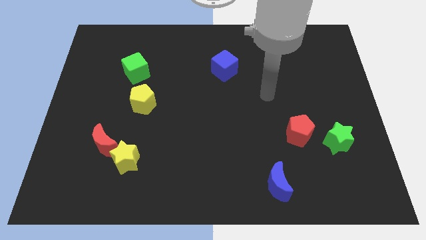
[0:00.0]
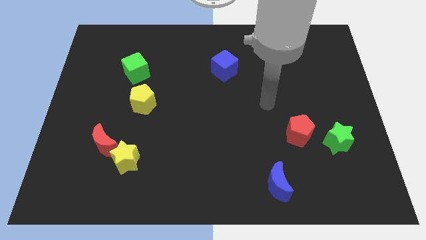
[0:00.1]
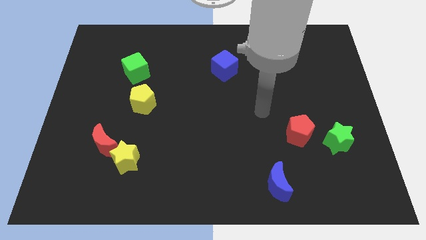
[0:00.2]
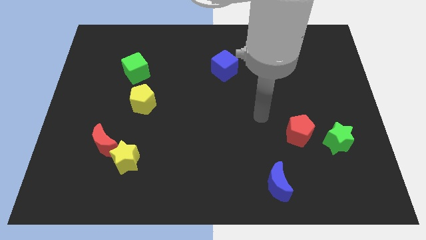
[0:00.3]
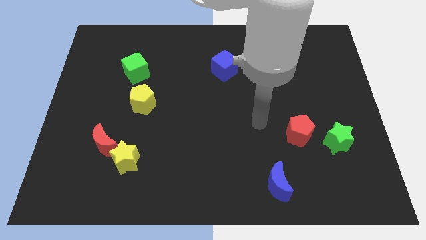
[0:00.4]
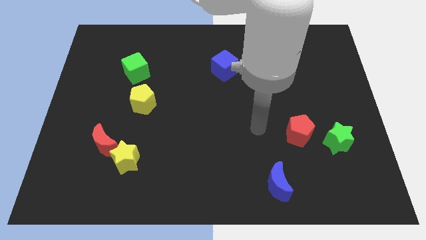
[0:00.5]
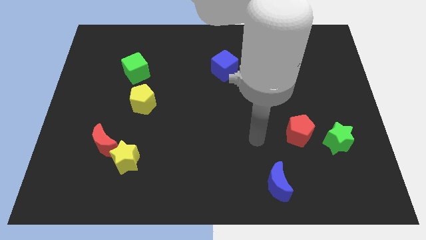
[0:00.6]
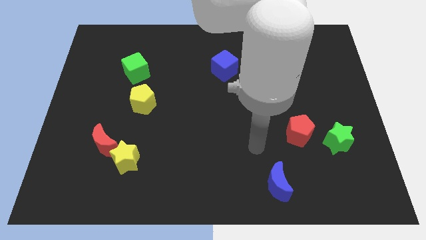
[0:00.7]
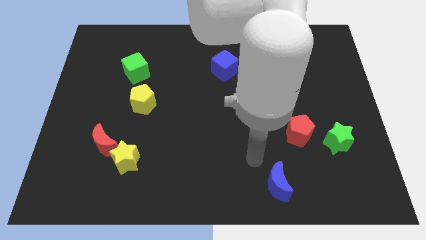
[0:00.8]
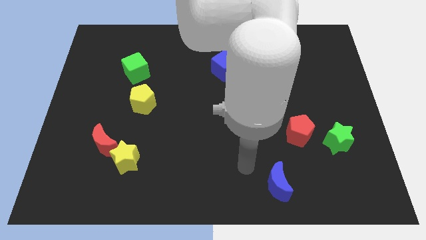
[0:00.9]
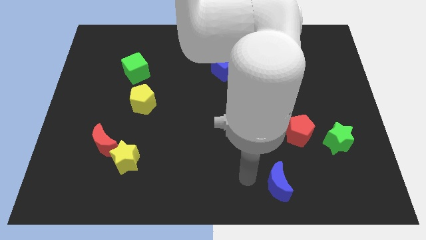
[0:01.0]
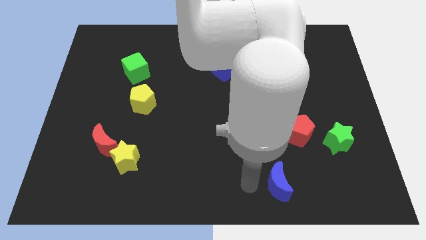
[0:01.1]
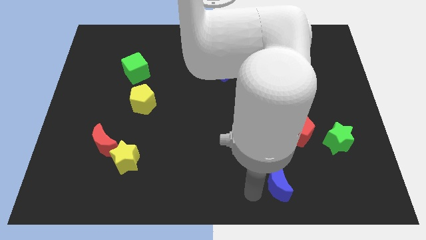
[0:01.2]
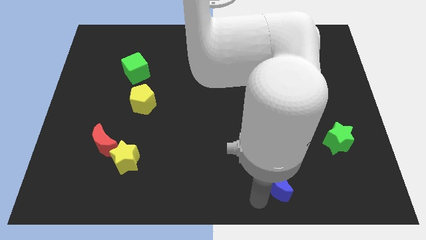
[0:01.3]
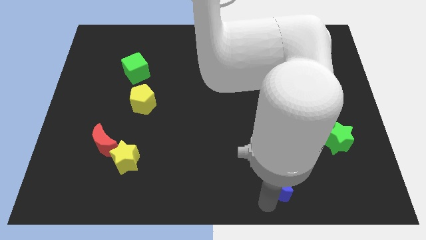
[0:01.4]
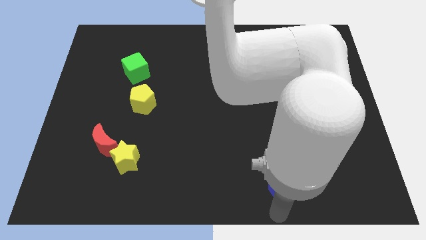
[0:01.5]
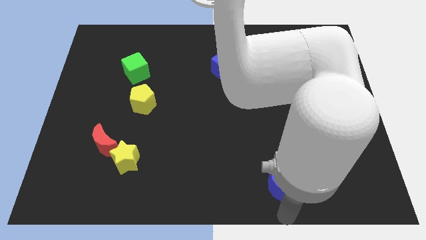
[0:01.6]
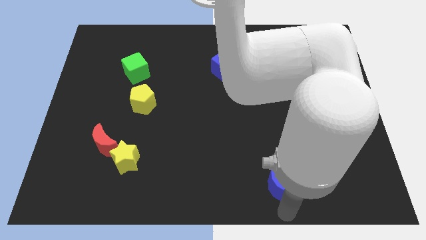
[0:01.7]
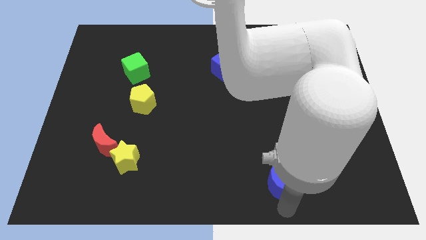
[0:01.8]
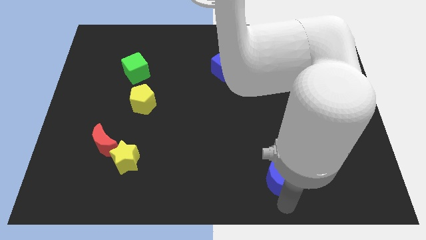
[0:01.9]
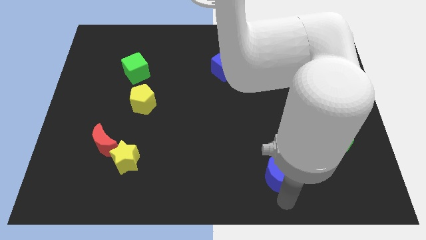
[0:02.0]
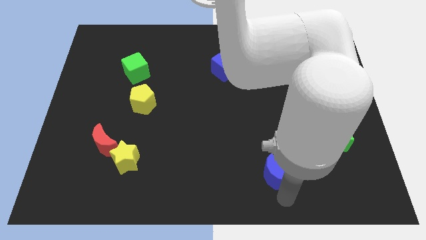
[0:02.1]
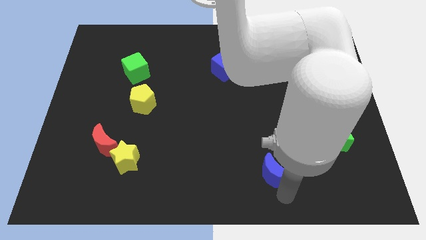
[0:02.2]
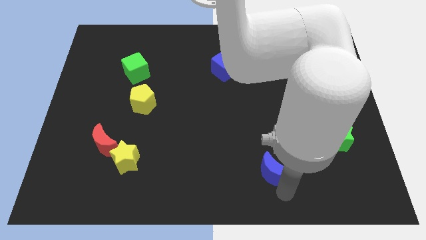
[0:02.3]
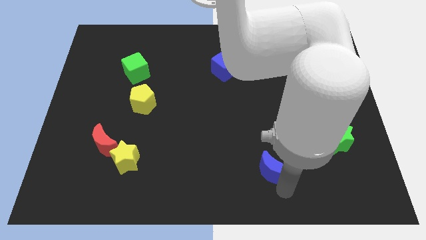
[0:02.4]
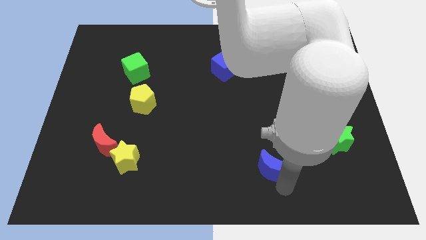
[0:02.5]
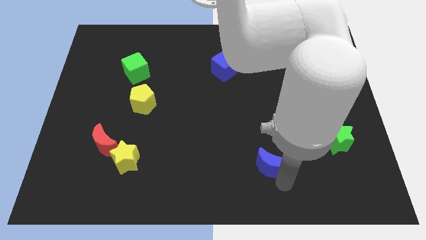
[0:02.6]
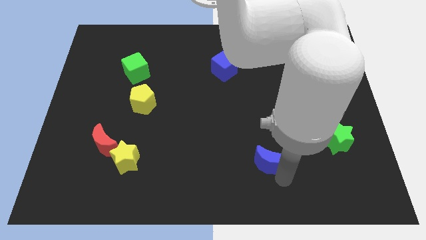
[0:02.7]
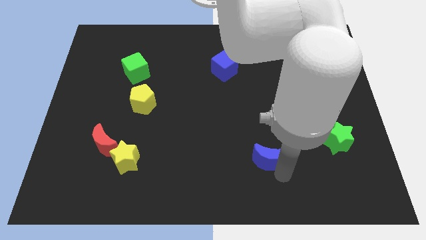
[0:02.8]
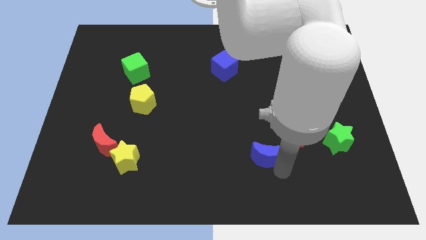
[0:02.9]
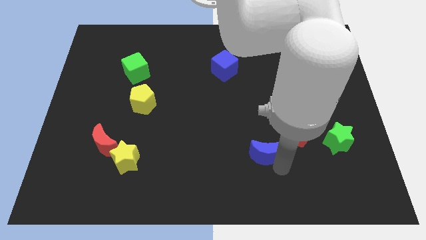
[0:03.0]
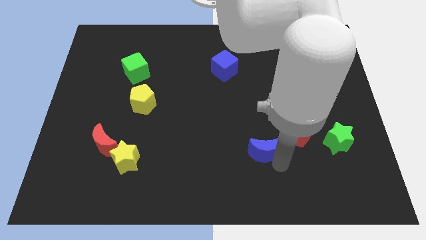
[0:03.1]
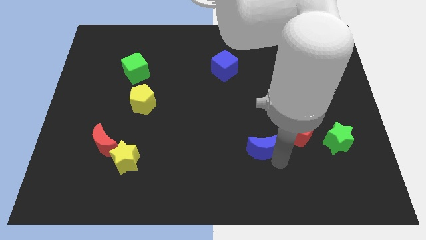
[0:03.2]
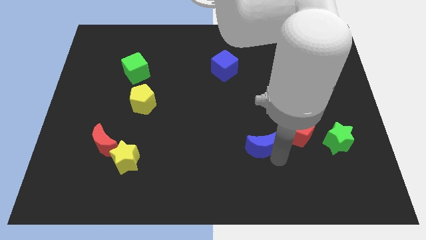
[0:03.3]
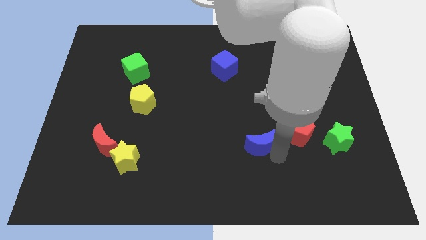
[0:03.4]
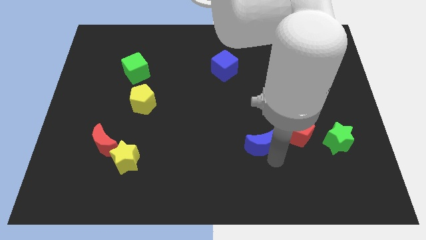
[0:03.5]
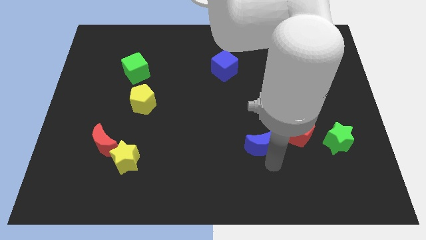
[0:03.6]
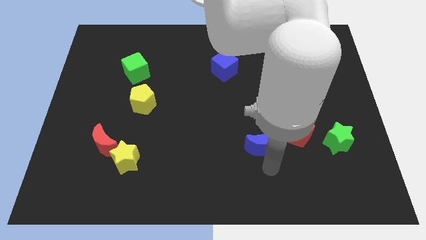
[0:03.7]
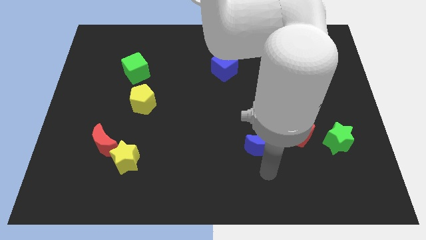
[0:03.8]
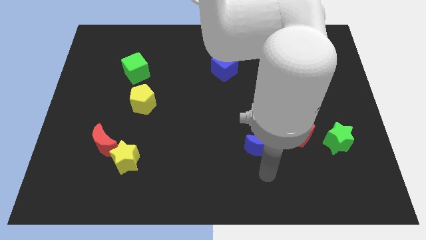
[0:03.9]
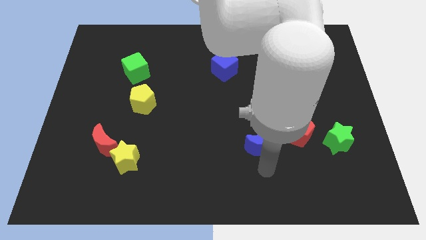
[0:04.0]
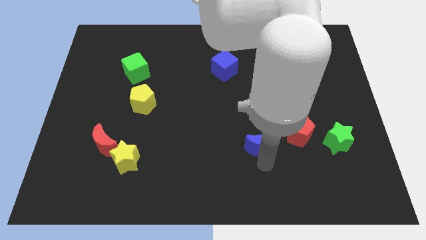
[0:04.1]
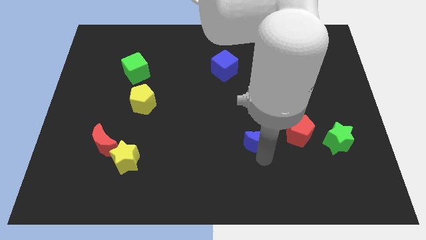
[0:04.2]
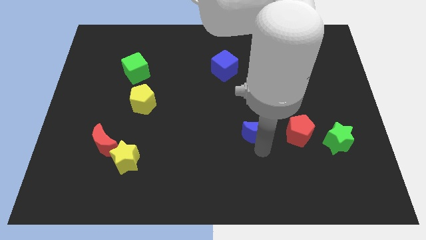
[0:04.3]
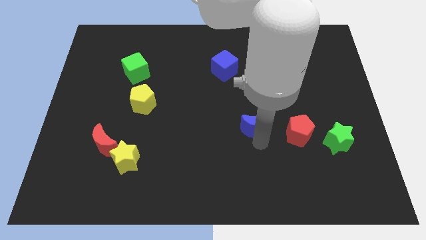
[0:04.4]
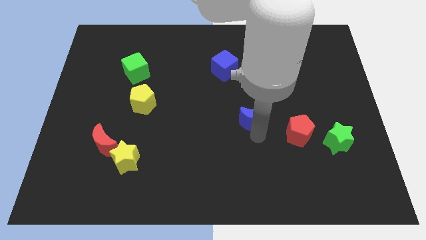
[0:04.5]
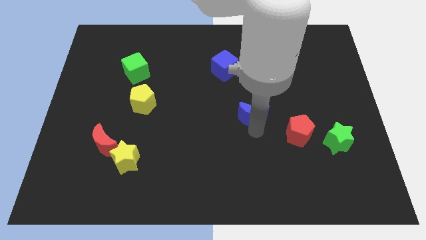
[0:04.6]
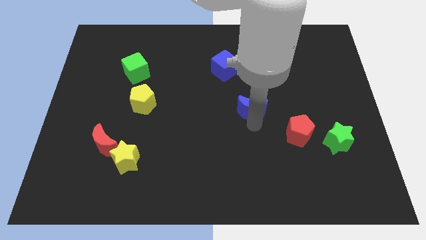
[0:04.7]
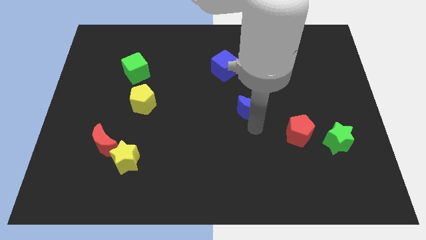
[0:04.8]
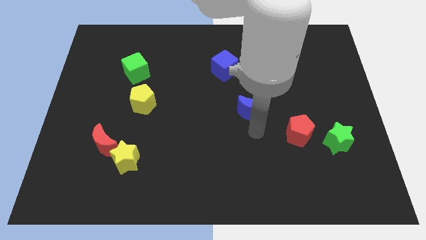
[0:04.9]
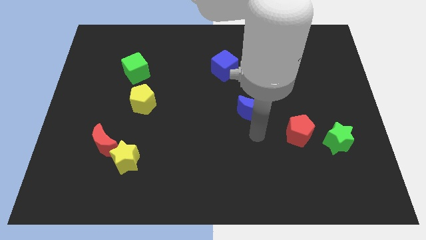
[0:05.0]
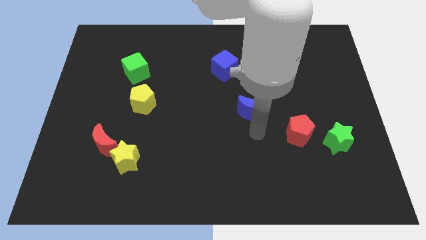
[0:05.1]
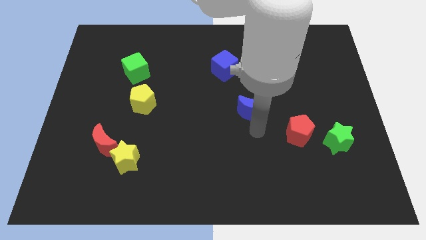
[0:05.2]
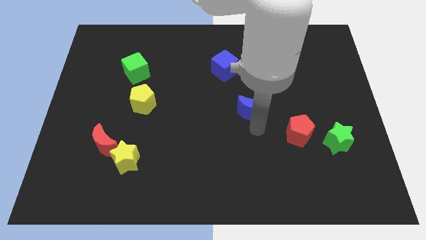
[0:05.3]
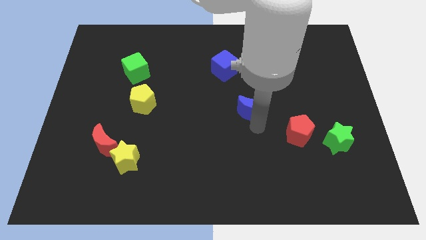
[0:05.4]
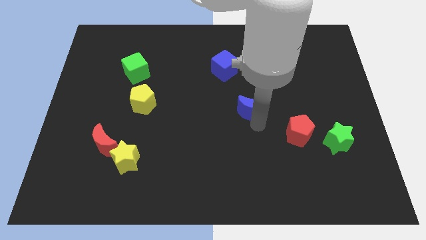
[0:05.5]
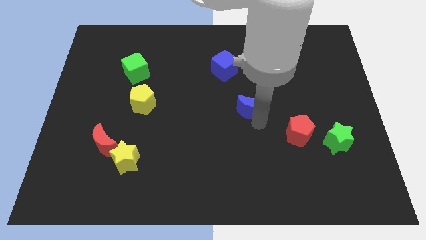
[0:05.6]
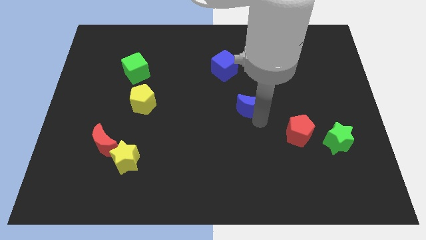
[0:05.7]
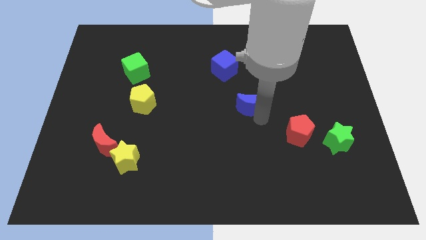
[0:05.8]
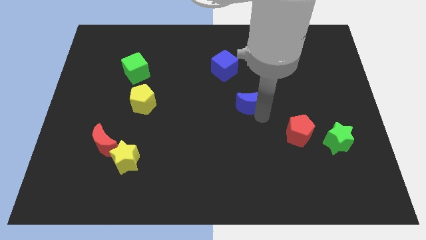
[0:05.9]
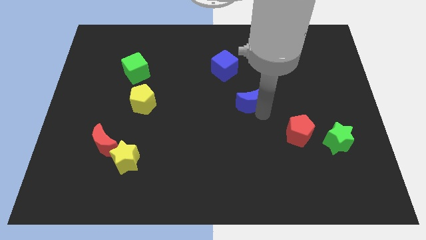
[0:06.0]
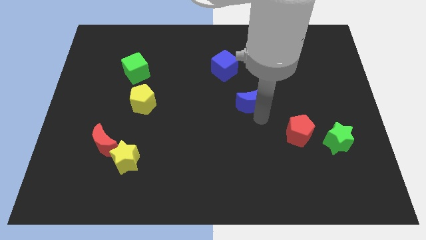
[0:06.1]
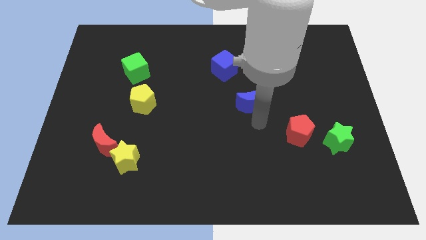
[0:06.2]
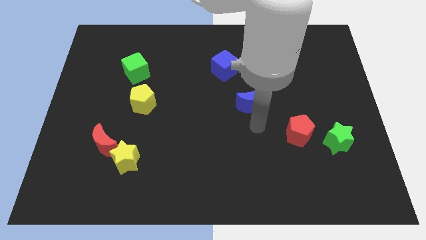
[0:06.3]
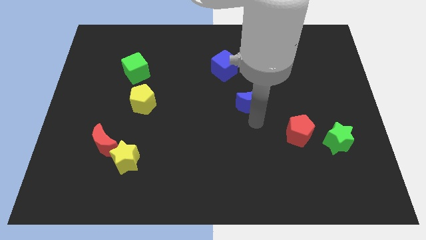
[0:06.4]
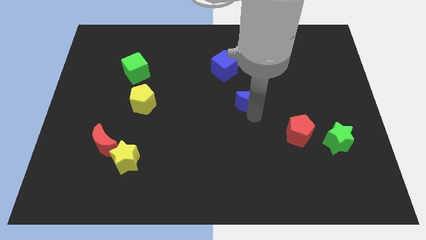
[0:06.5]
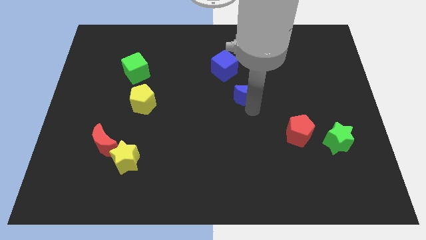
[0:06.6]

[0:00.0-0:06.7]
move the blue moon to the bottom right of the blue cube

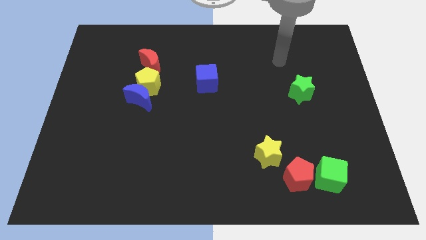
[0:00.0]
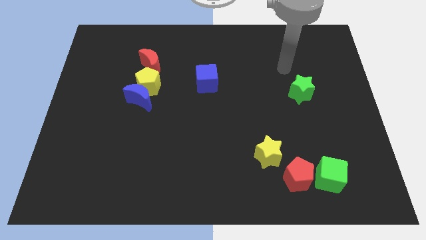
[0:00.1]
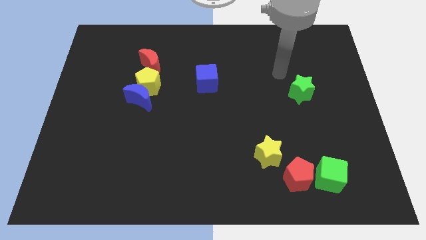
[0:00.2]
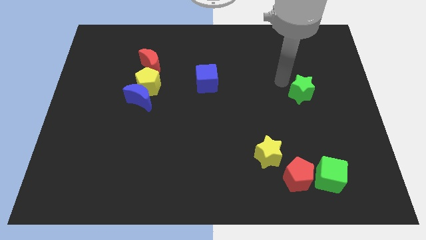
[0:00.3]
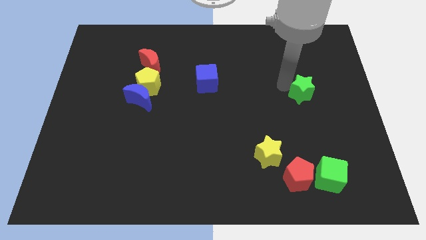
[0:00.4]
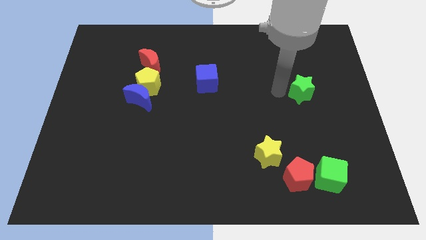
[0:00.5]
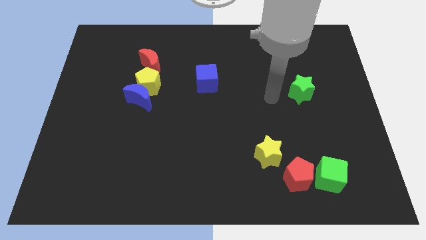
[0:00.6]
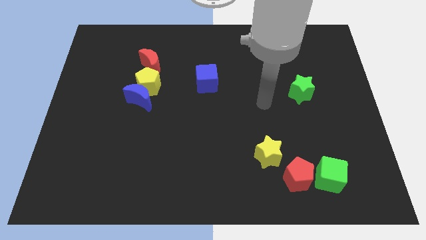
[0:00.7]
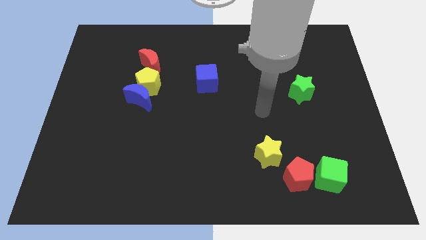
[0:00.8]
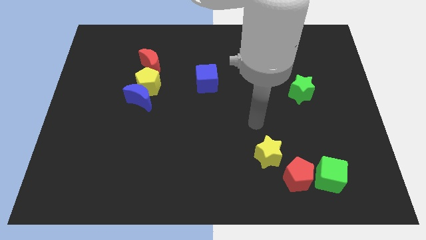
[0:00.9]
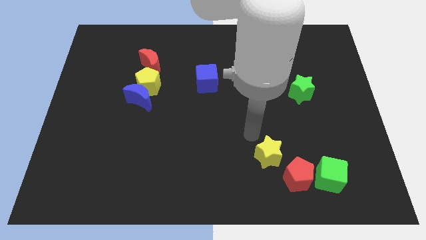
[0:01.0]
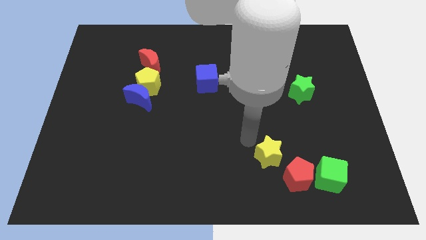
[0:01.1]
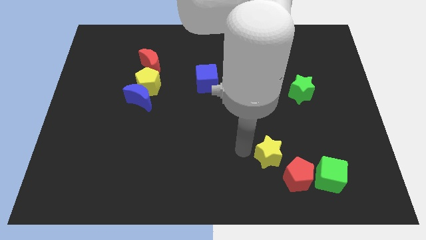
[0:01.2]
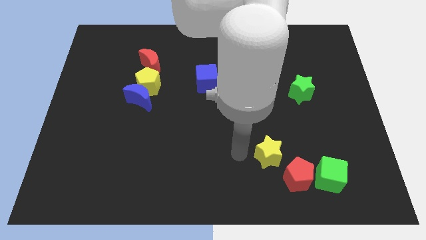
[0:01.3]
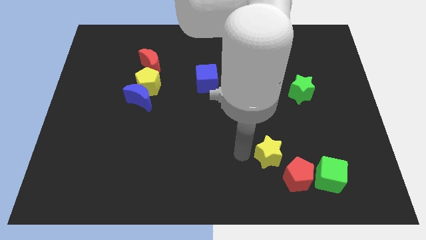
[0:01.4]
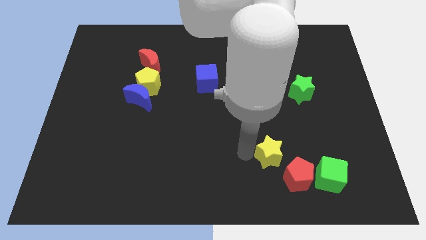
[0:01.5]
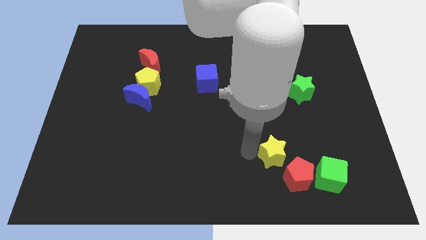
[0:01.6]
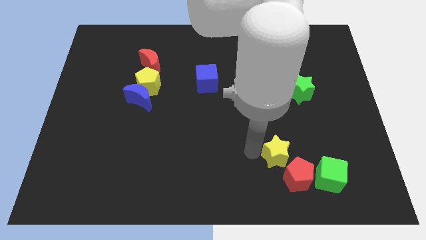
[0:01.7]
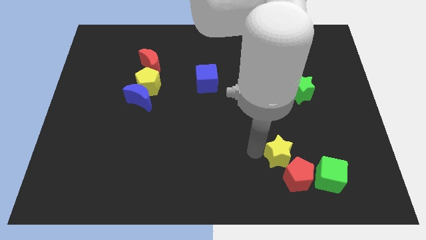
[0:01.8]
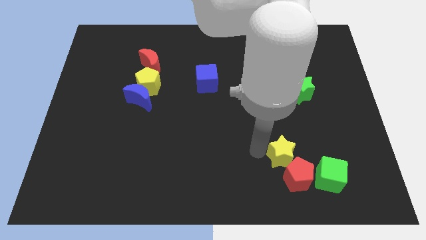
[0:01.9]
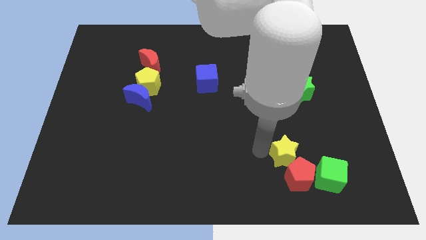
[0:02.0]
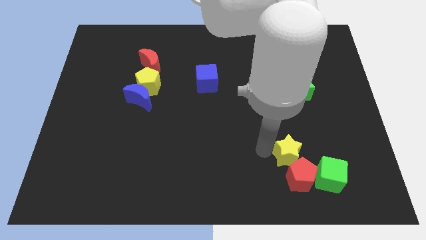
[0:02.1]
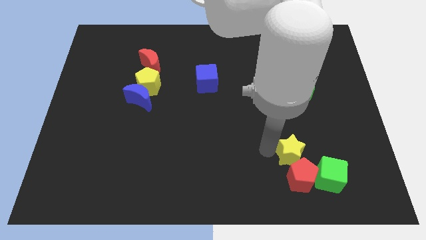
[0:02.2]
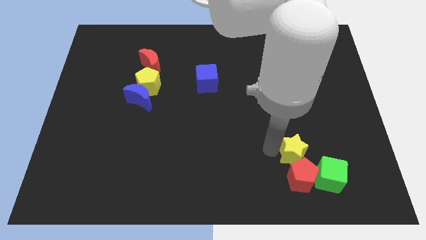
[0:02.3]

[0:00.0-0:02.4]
slide the yellow star diagonally up and to the right of the red pentagon
